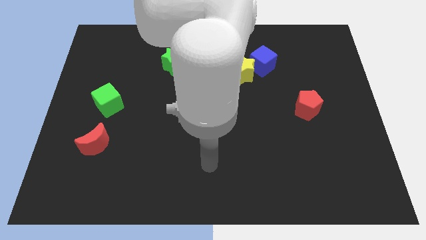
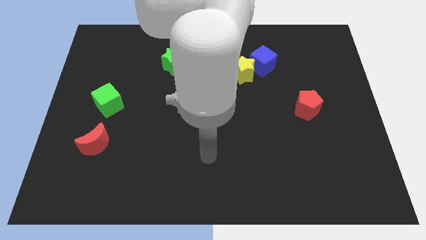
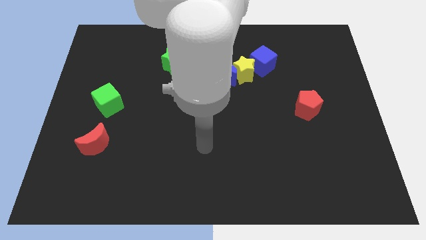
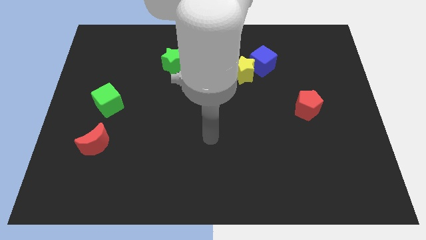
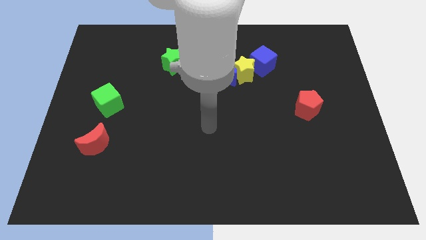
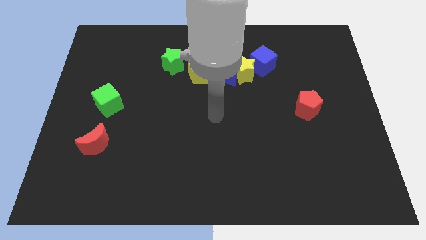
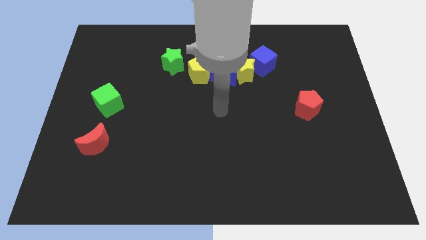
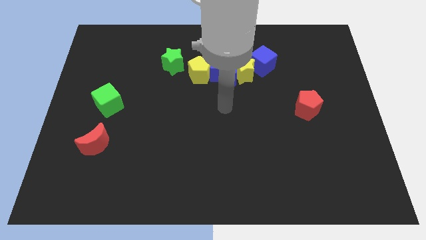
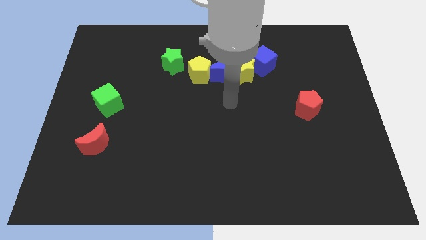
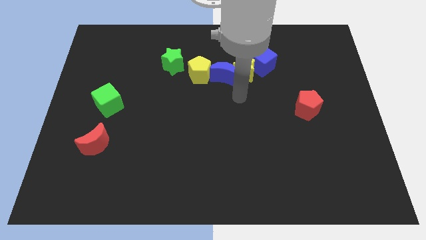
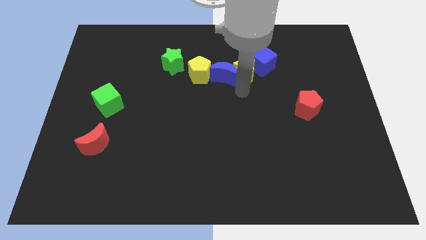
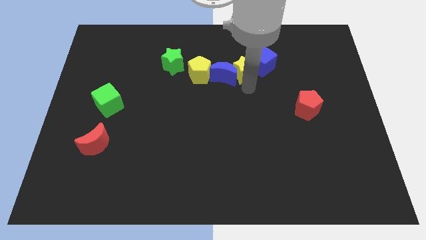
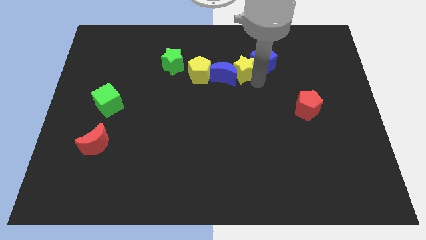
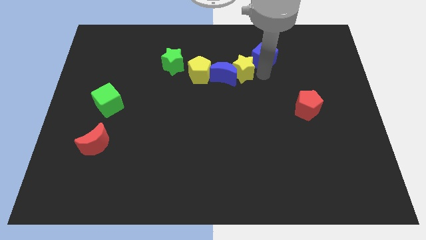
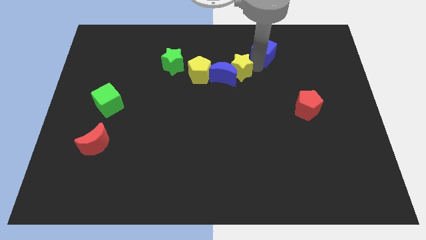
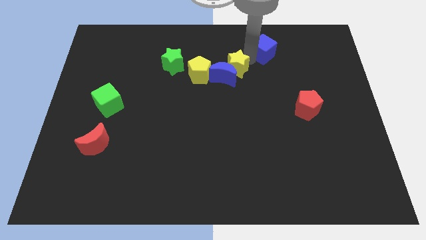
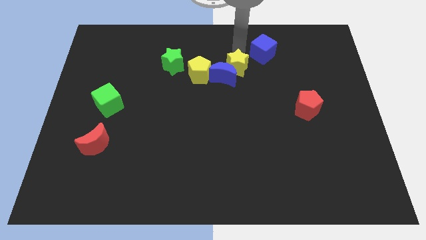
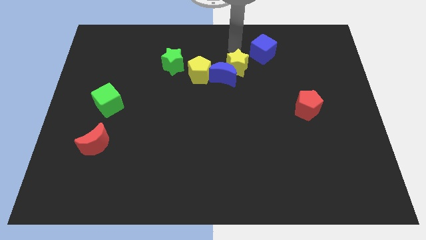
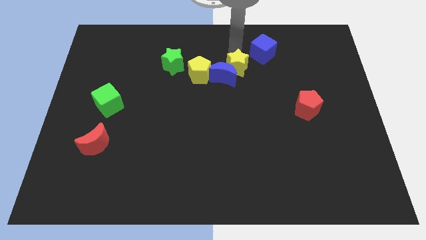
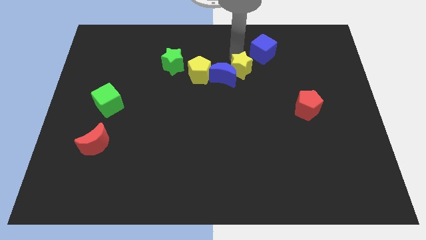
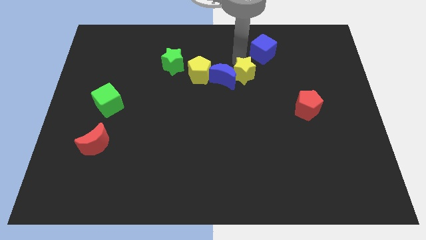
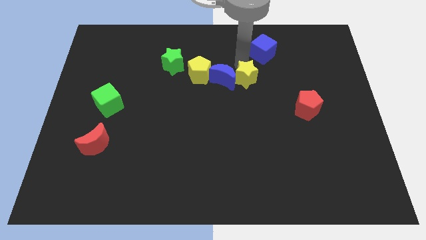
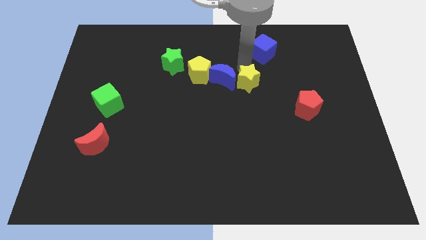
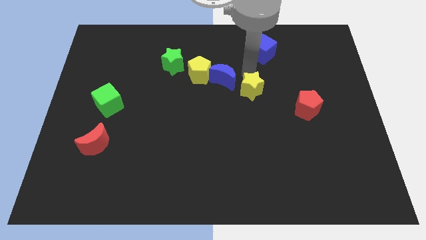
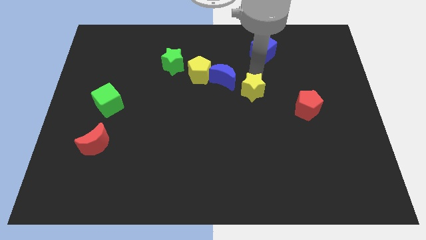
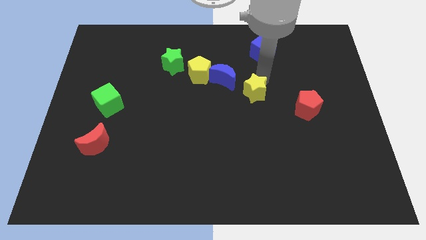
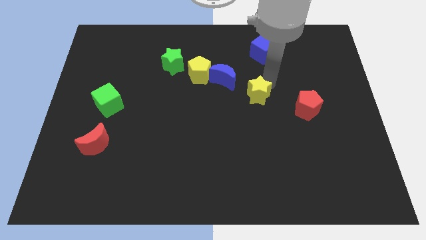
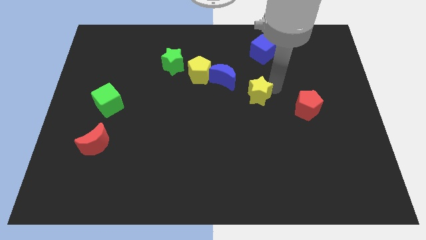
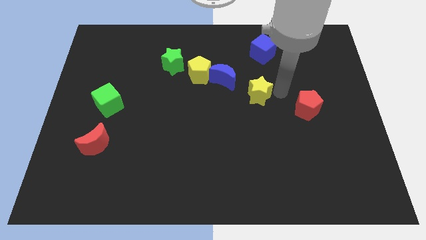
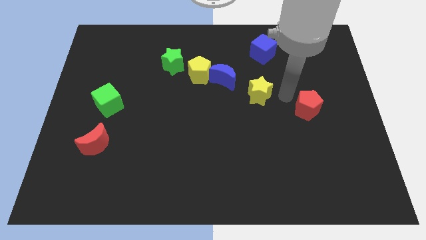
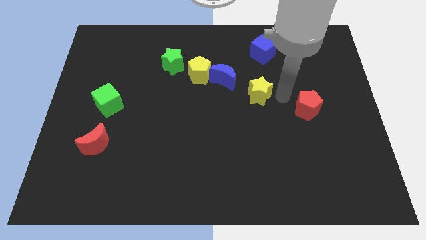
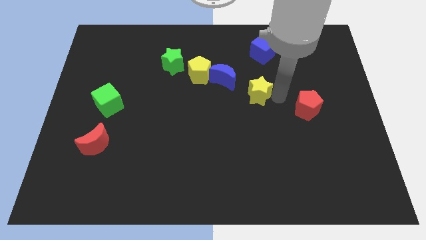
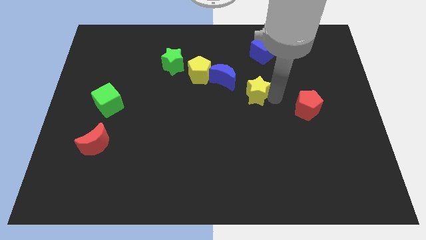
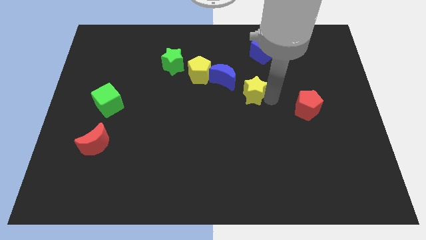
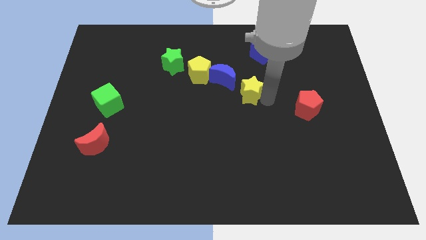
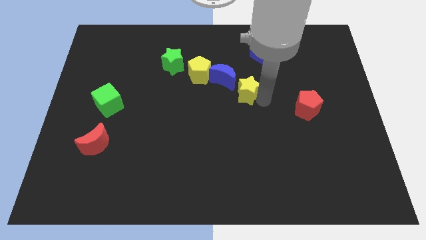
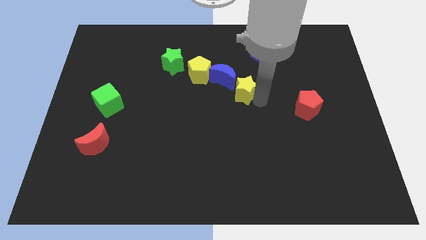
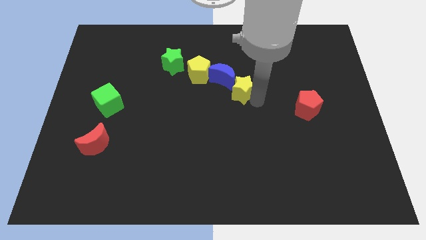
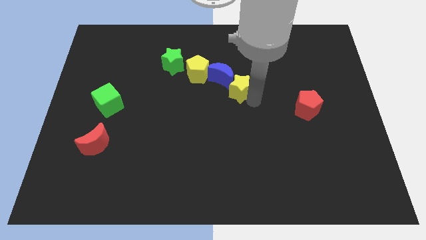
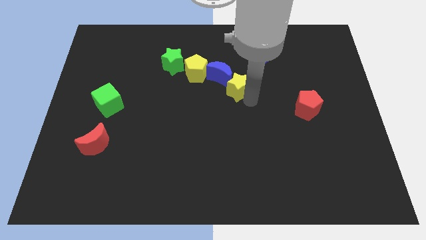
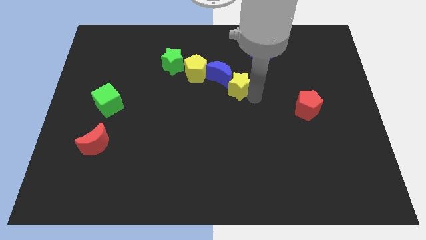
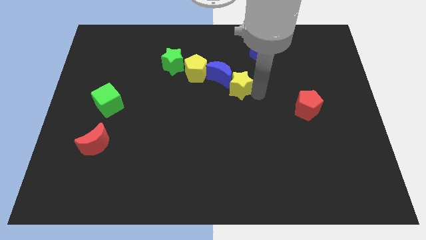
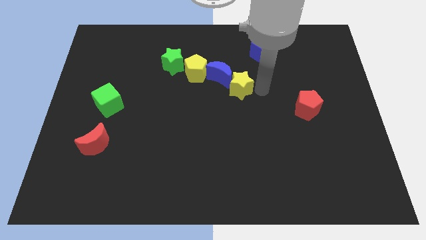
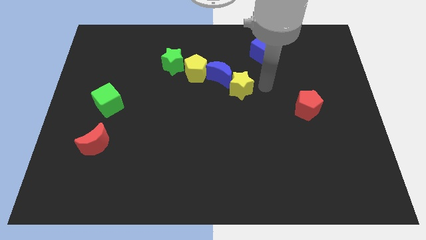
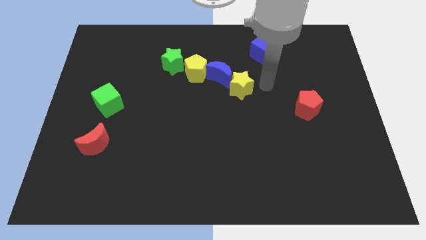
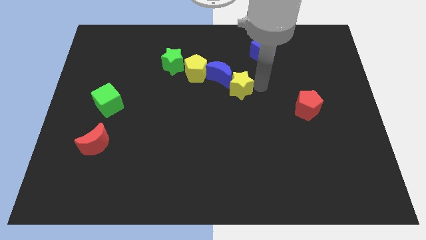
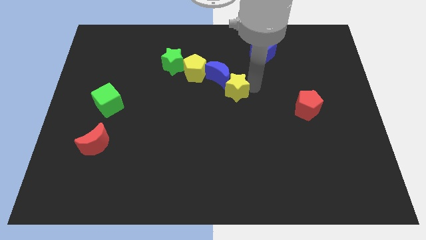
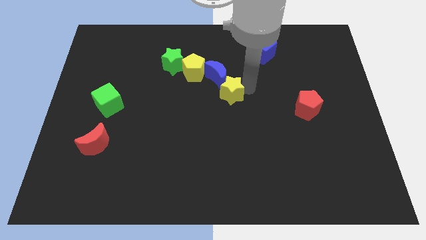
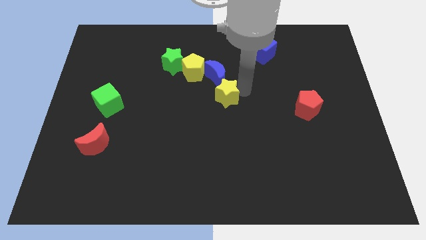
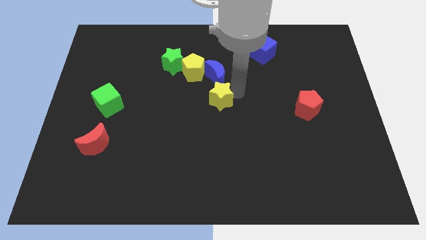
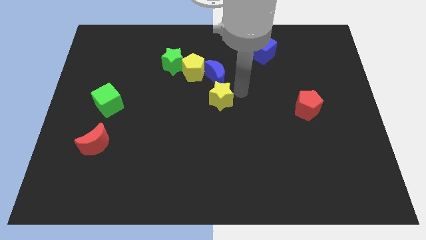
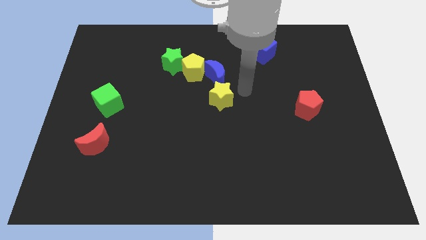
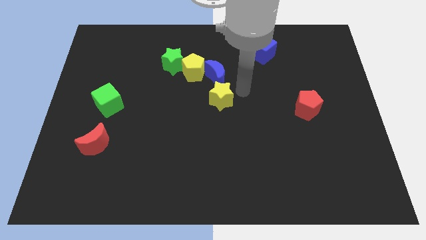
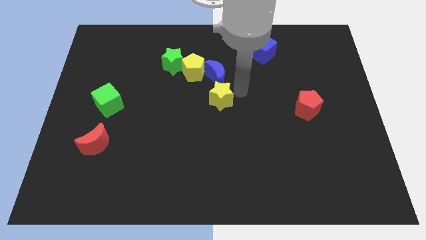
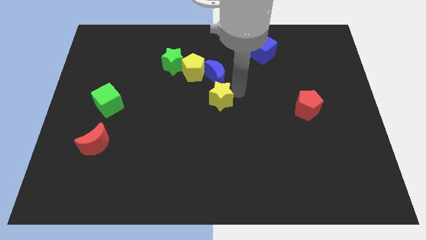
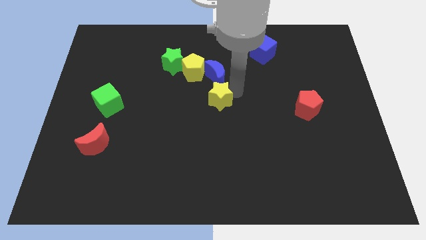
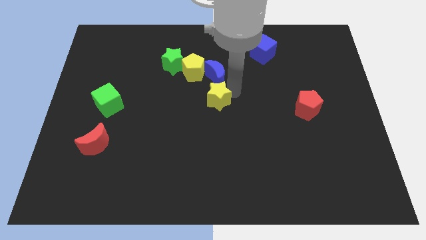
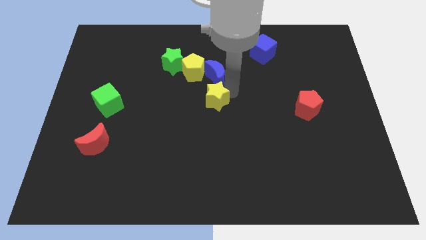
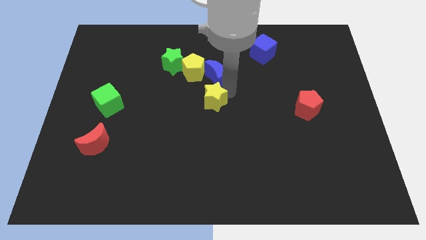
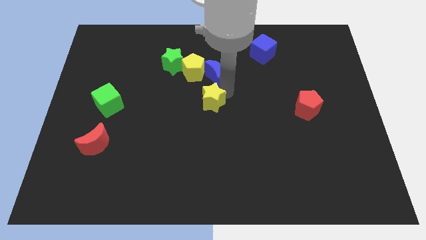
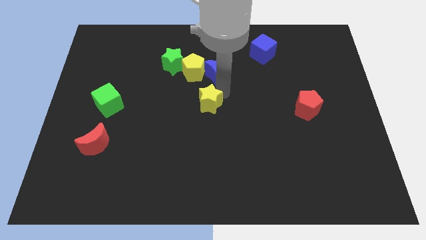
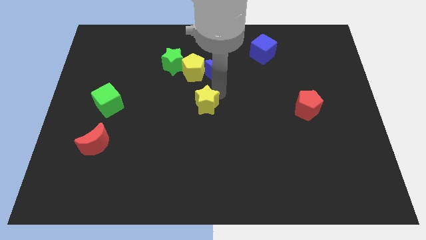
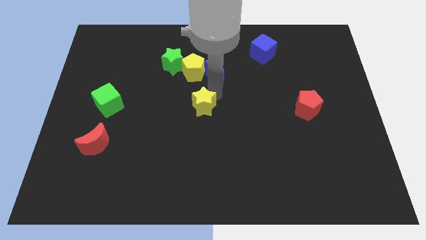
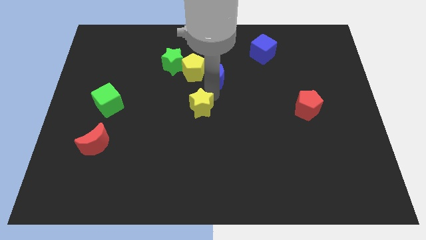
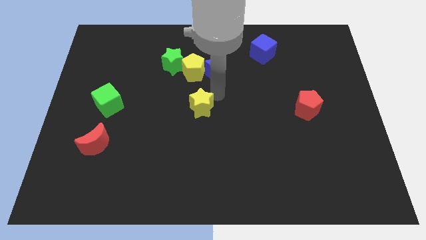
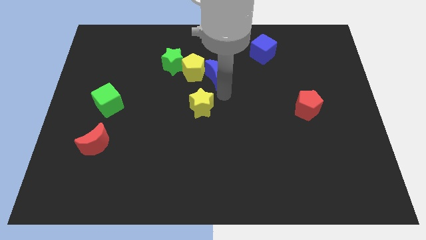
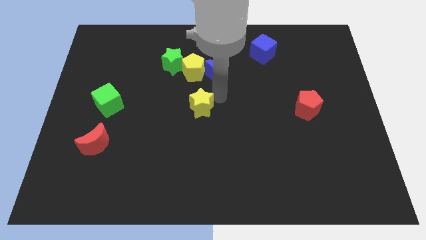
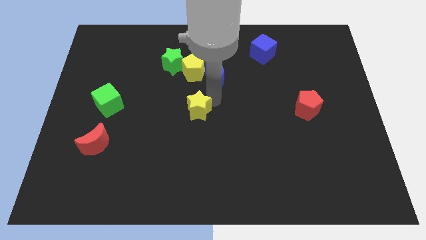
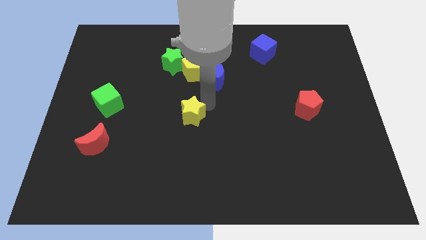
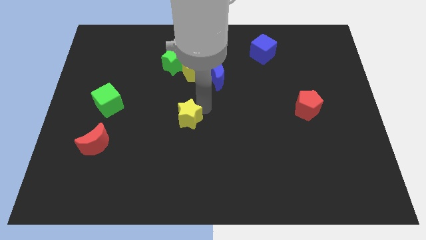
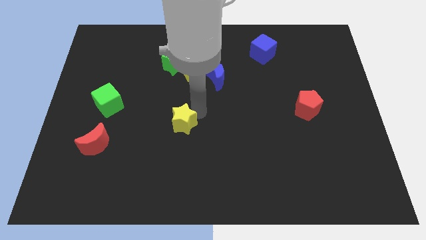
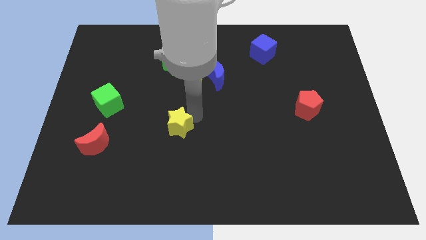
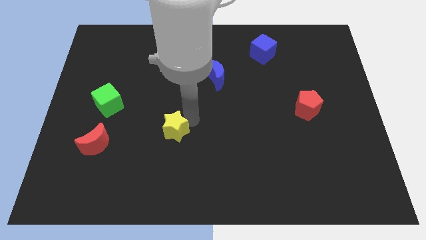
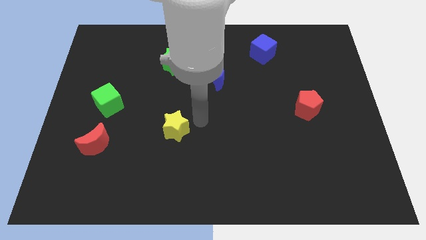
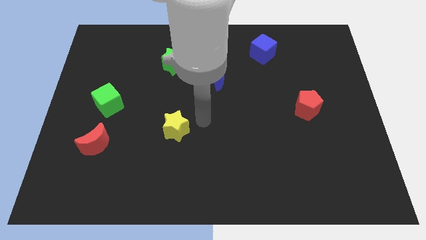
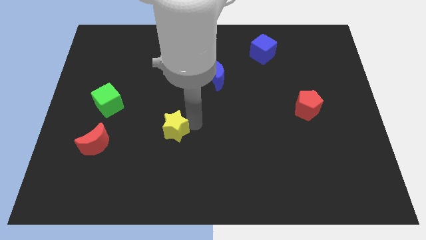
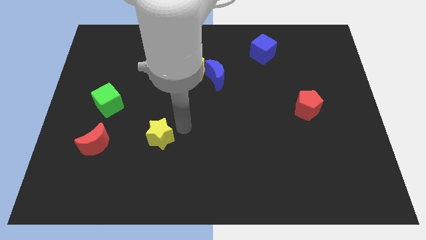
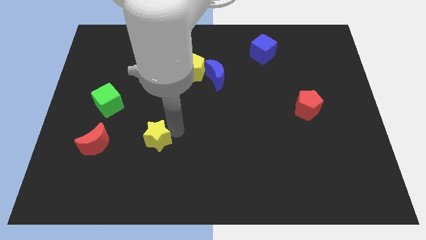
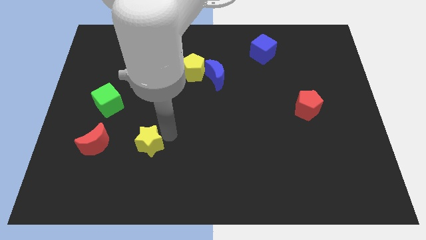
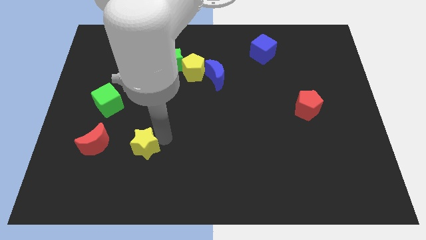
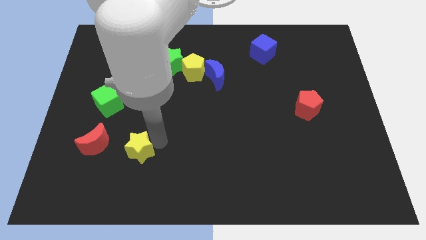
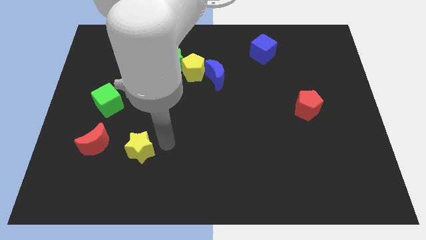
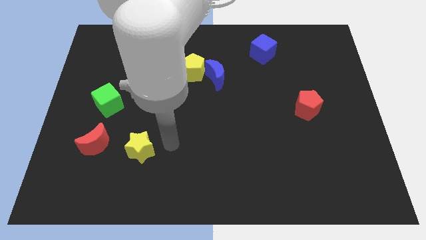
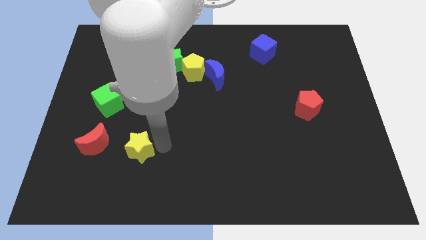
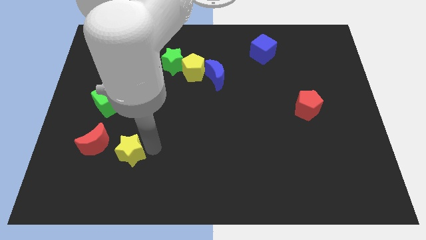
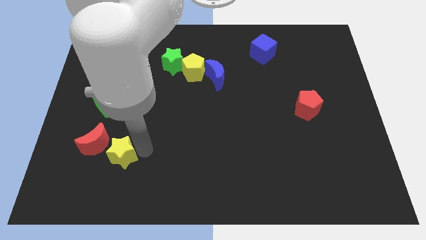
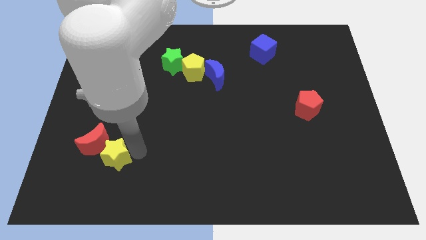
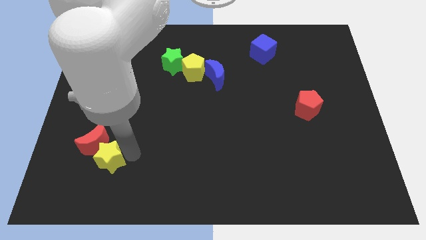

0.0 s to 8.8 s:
push the yellow star below the green cube
